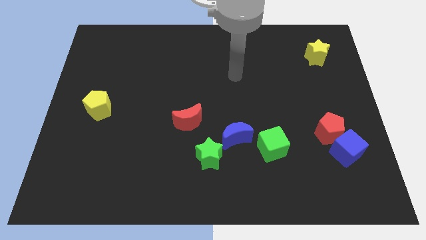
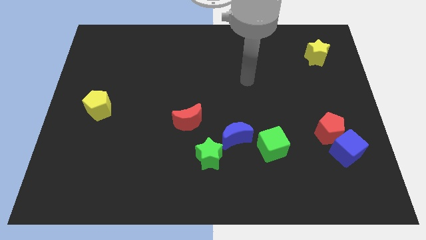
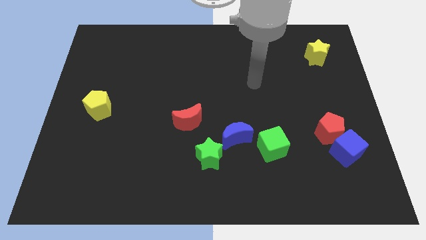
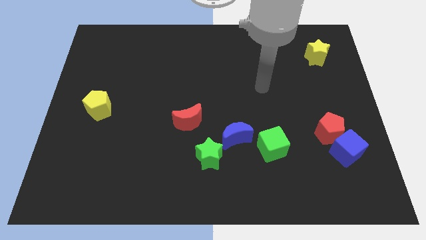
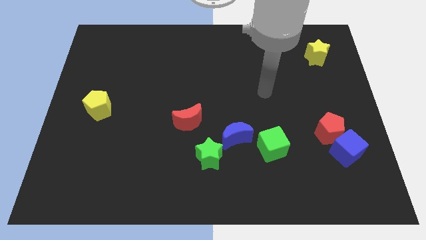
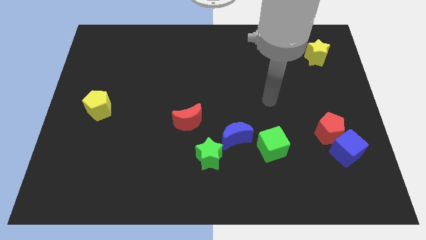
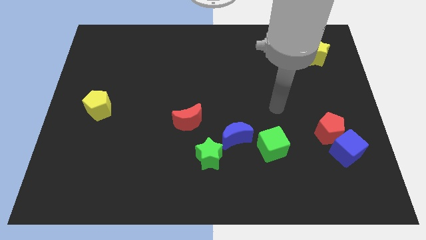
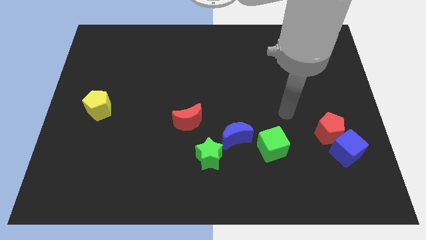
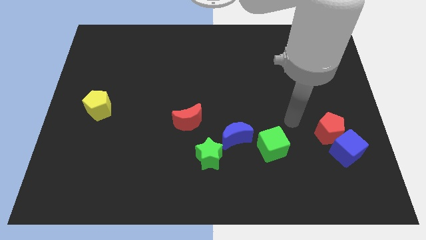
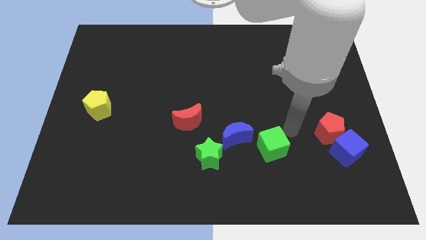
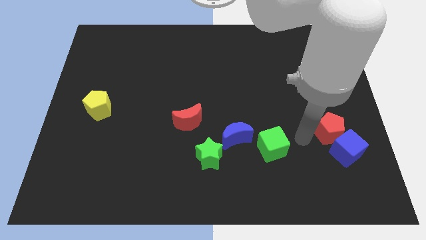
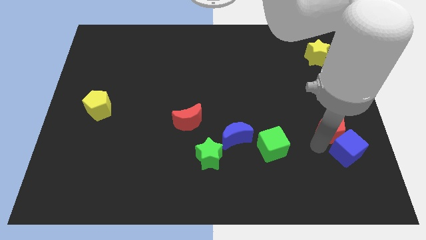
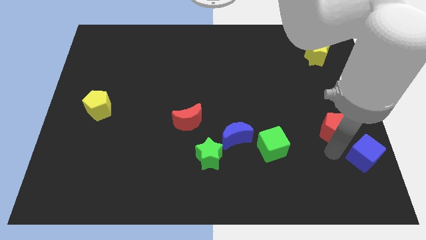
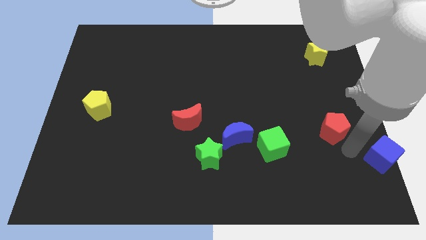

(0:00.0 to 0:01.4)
move the red pentagon away from the blue cube

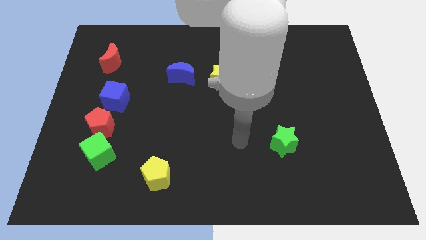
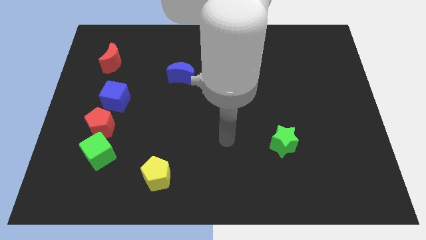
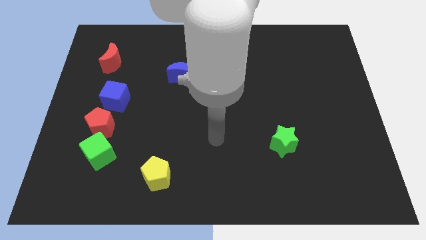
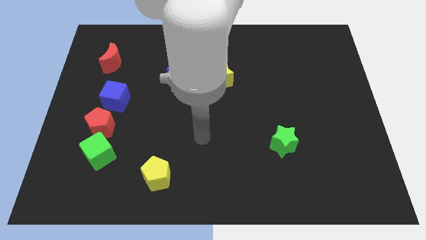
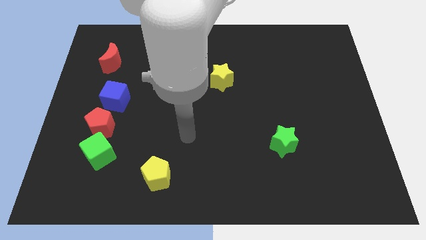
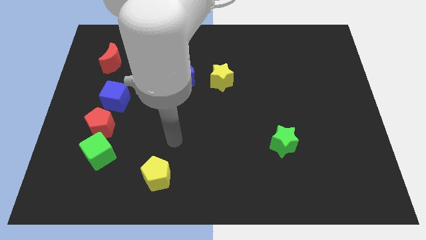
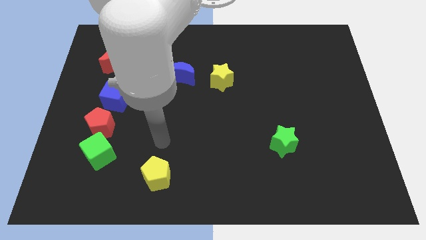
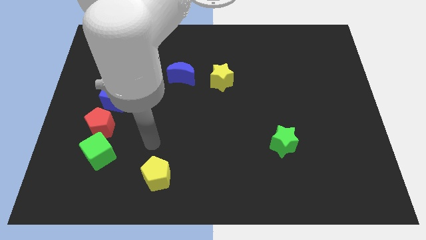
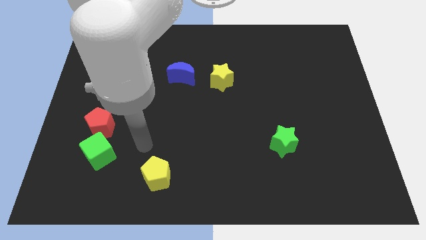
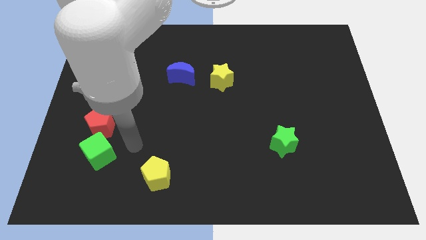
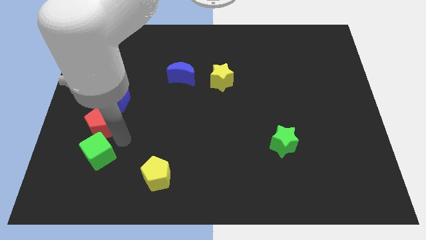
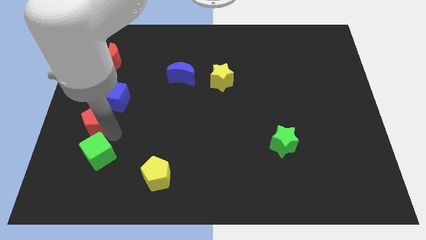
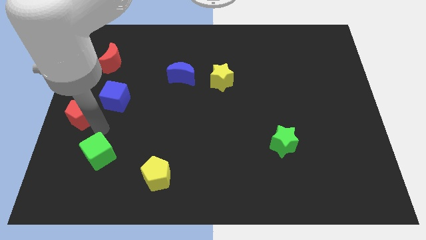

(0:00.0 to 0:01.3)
move the green cube away from the red pentagon

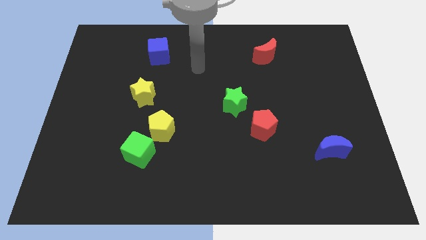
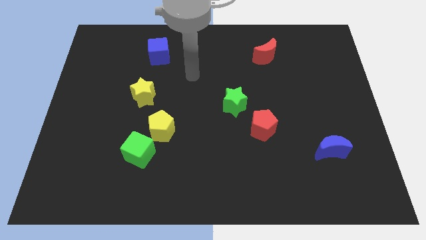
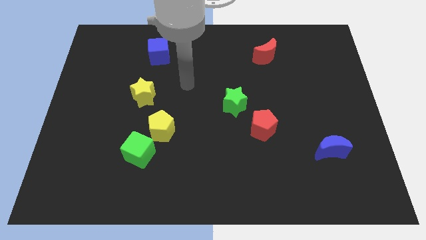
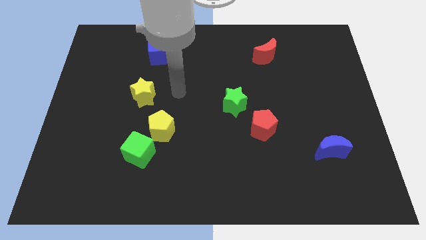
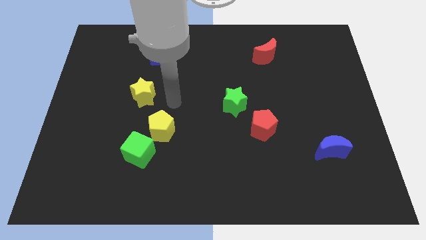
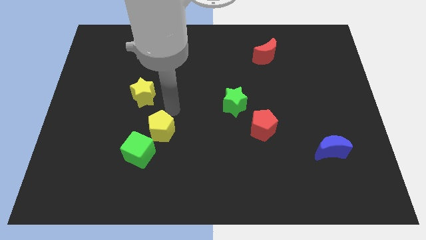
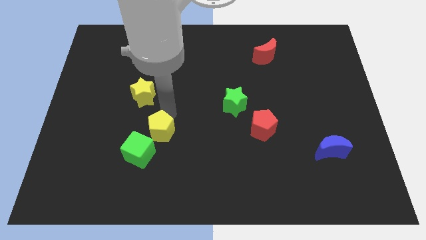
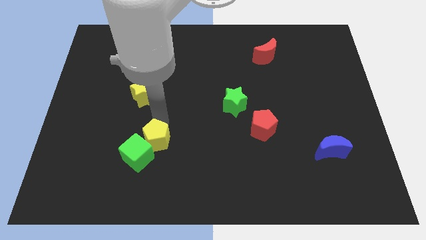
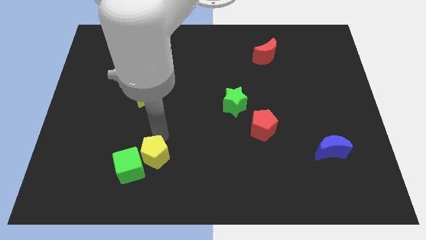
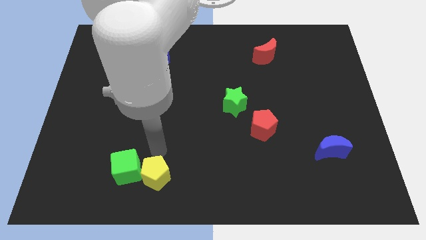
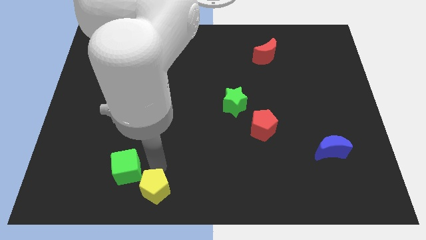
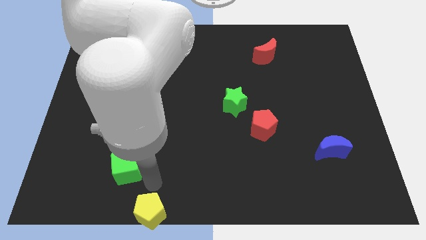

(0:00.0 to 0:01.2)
separate the green cube from the yellow pentagon

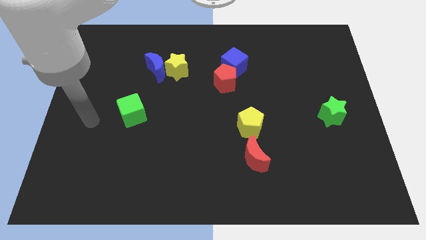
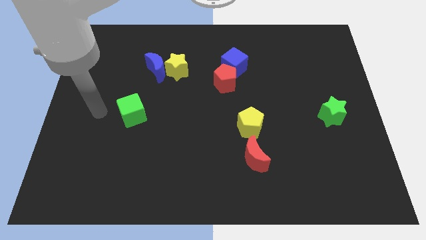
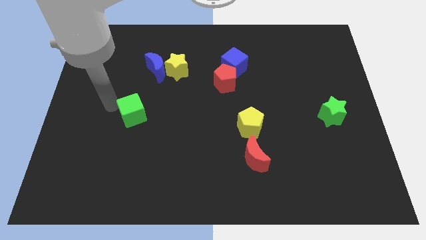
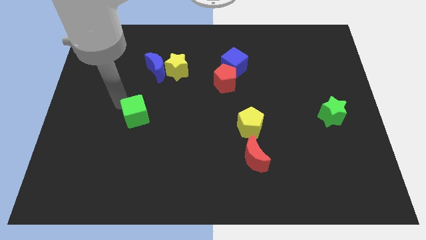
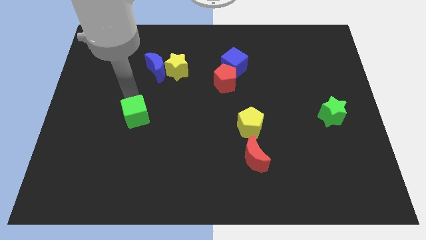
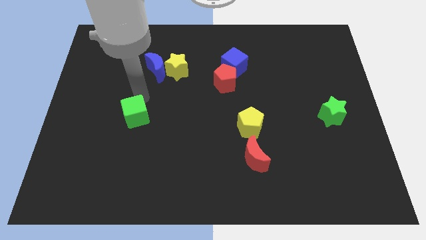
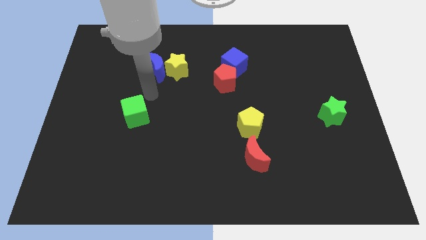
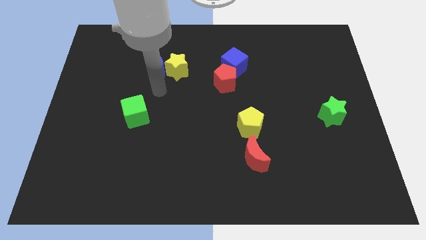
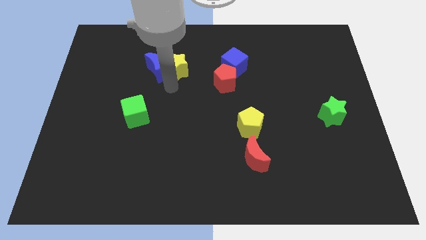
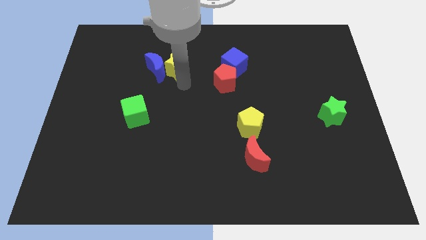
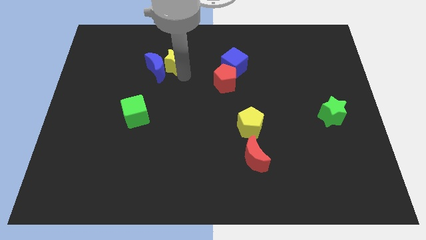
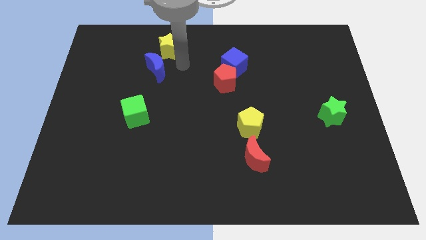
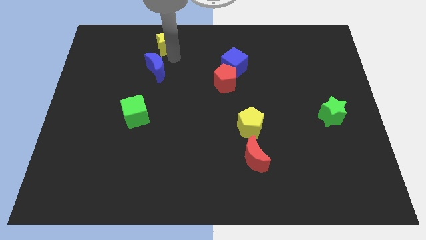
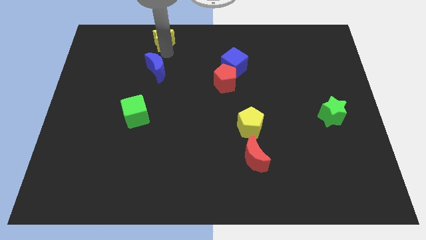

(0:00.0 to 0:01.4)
move the blue moon away from the yellow star

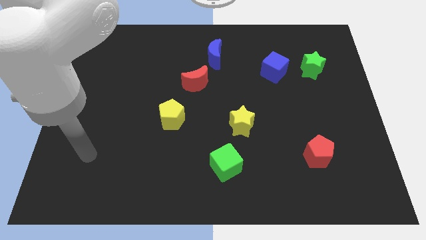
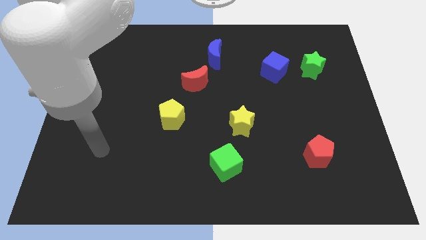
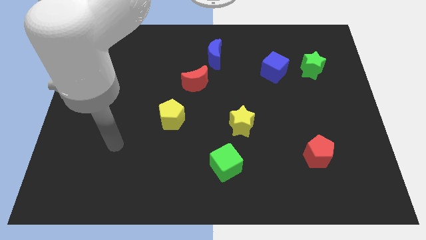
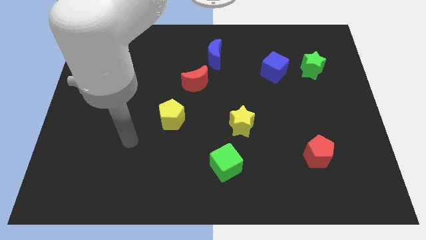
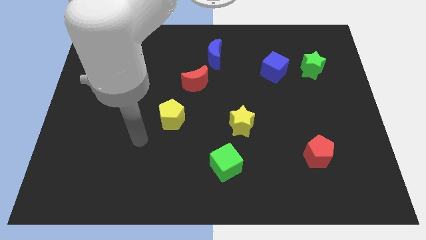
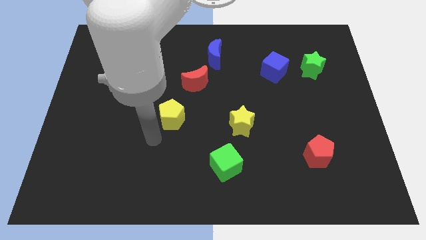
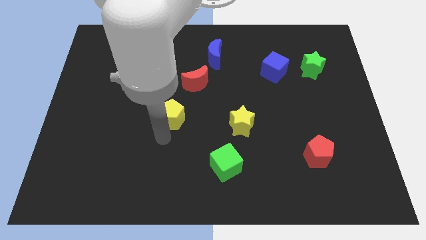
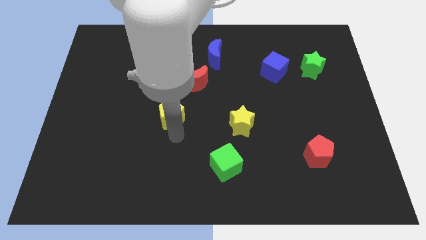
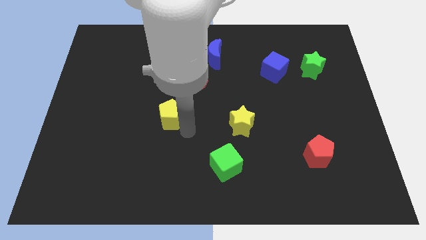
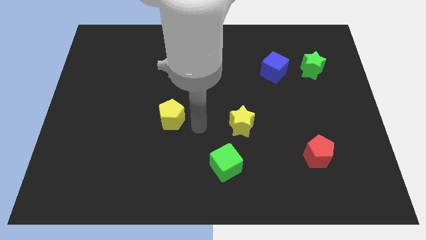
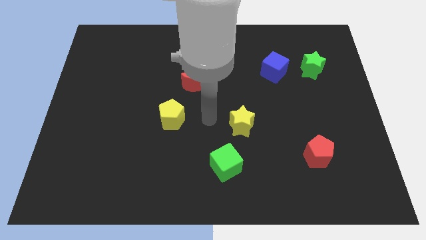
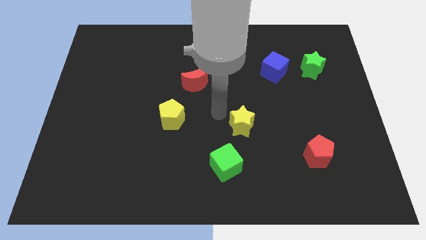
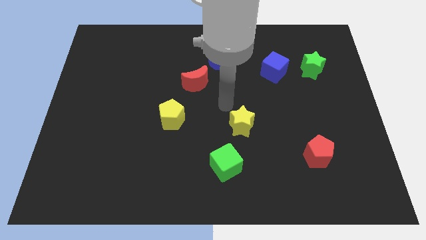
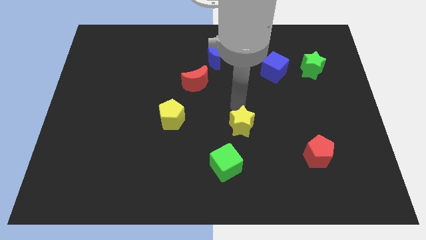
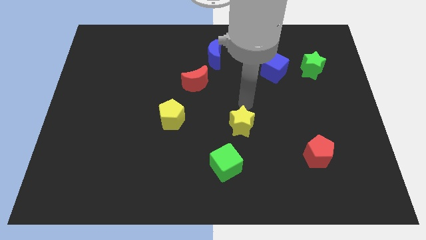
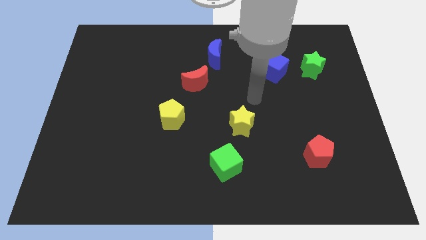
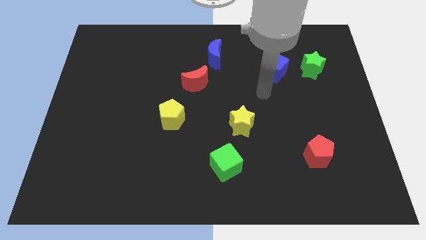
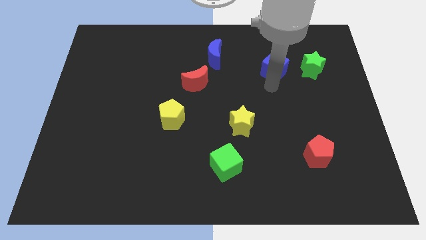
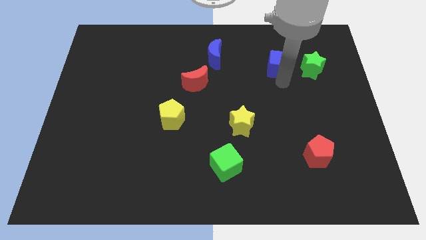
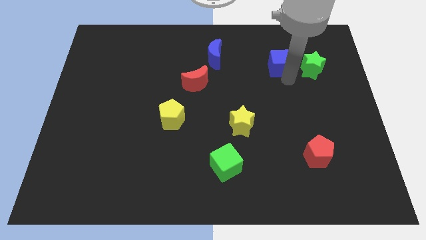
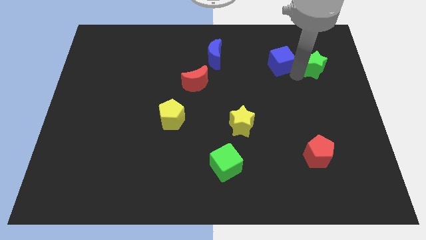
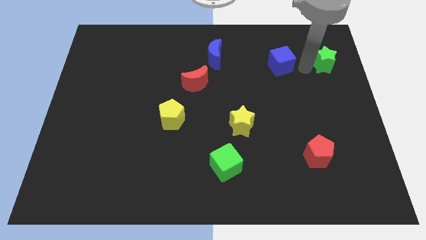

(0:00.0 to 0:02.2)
move the blue cube away from the green star

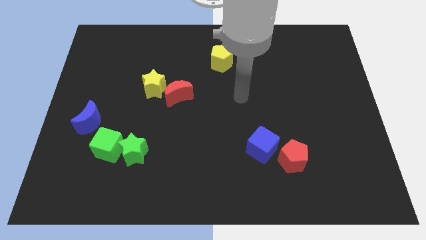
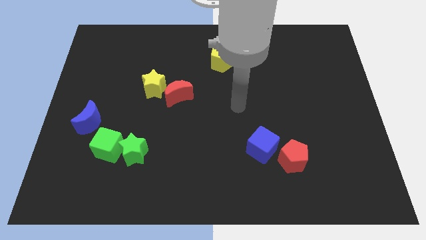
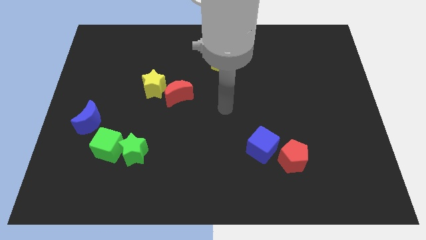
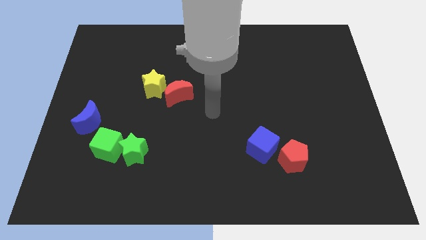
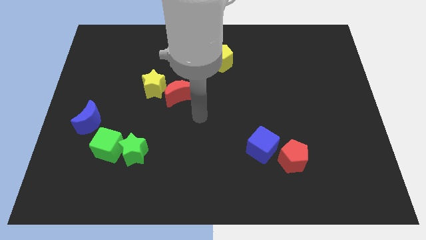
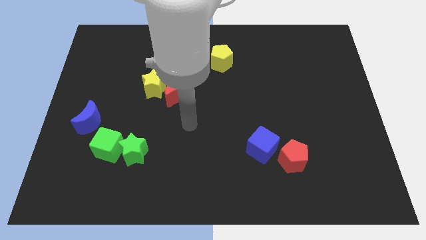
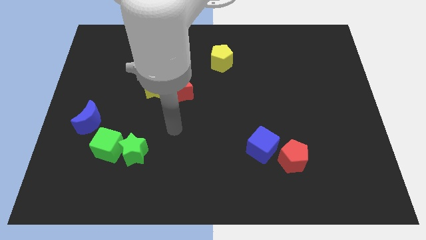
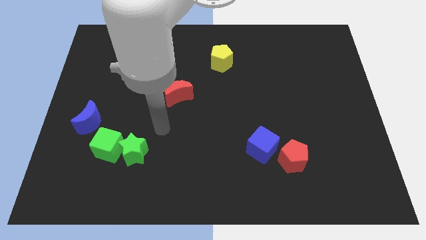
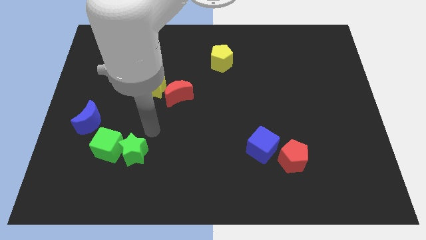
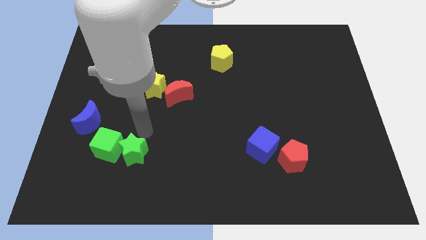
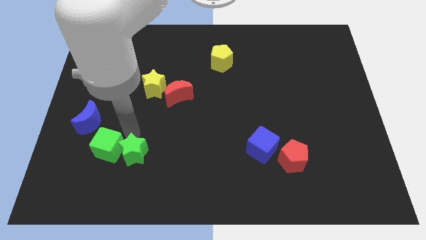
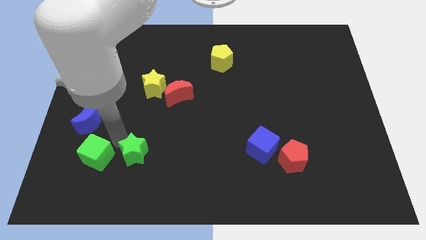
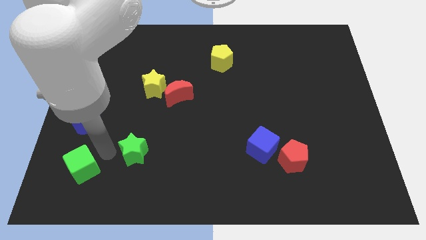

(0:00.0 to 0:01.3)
pull the green star apart from the green cube

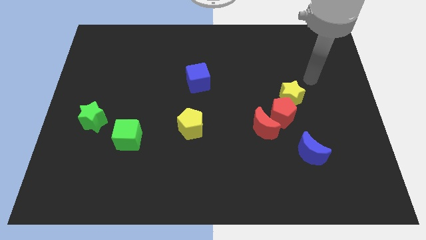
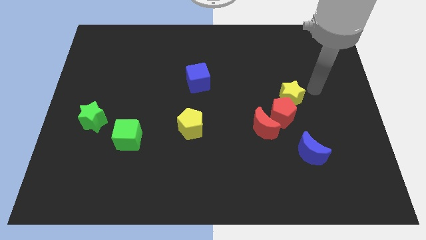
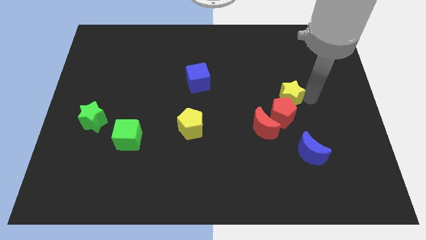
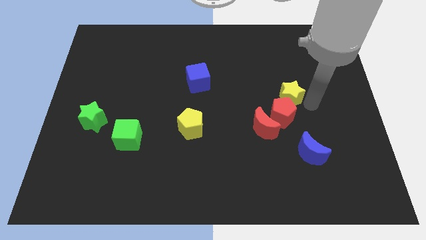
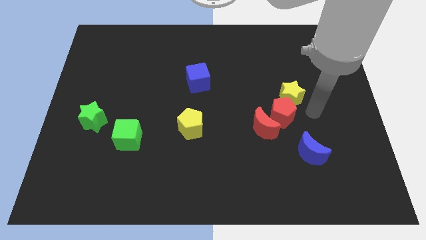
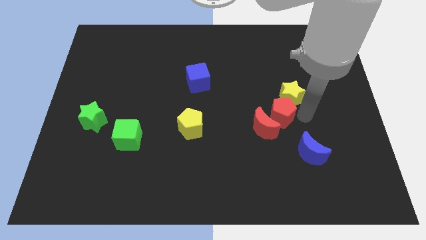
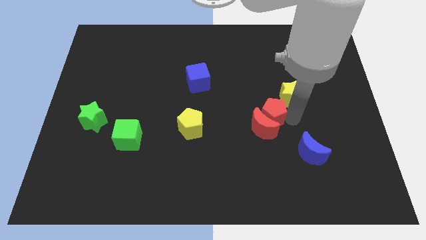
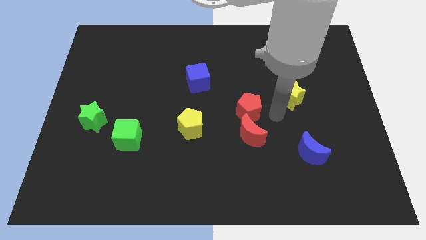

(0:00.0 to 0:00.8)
separate the yellow star from the red pentagon
